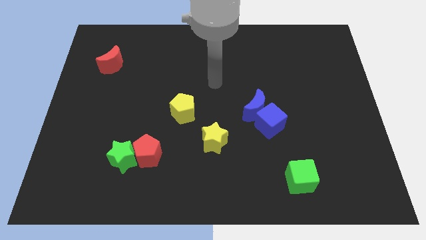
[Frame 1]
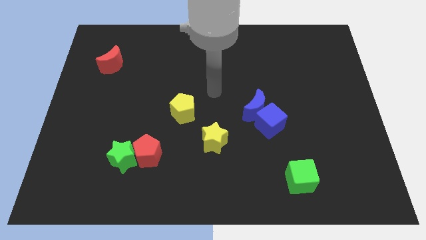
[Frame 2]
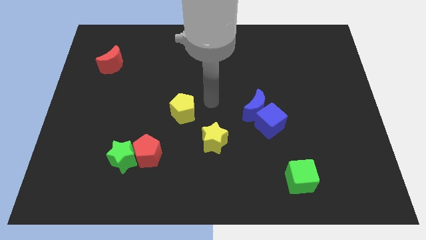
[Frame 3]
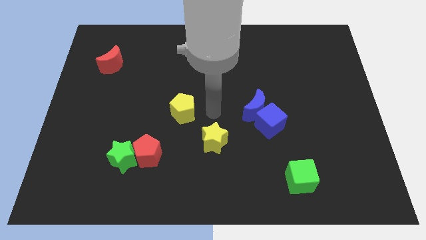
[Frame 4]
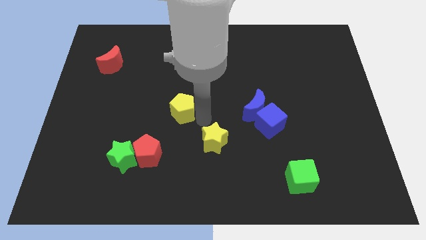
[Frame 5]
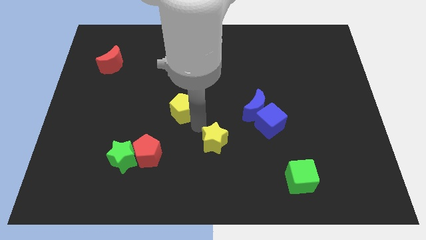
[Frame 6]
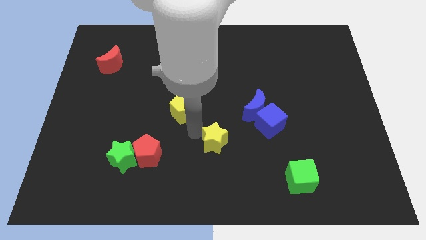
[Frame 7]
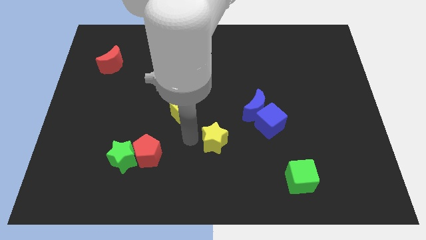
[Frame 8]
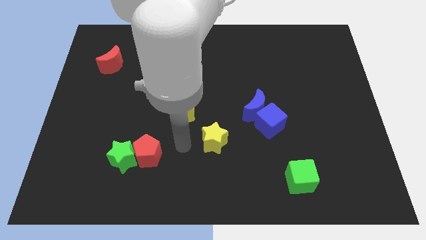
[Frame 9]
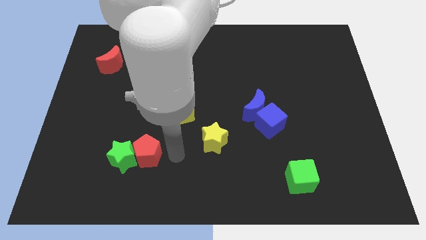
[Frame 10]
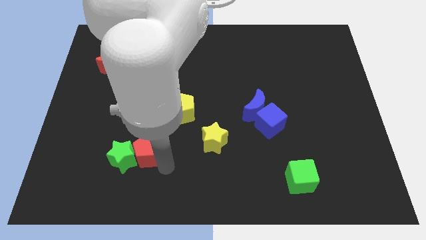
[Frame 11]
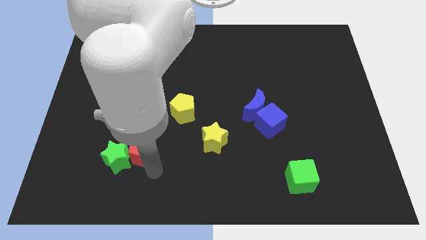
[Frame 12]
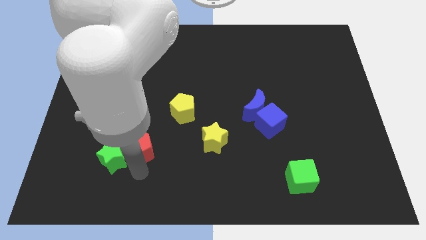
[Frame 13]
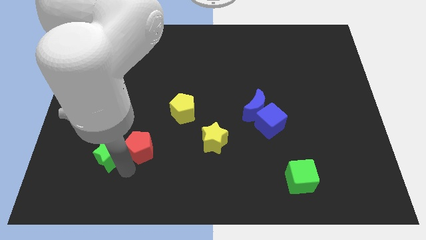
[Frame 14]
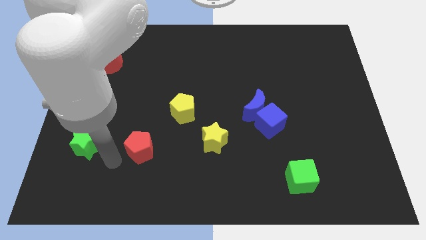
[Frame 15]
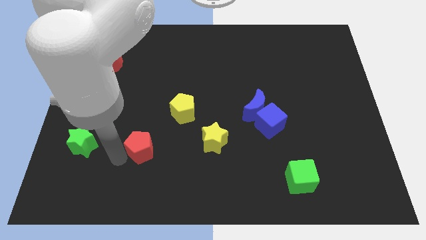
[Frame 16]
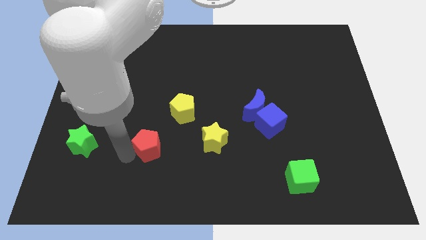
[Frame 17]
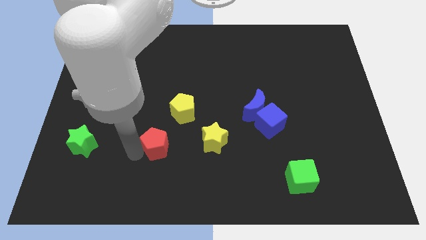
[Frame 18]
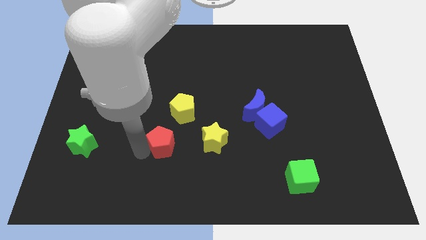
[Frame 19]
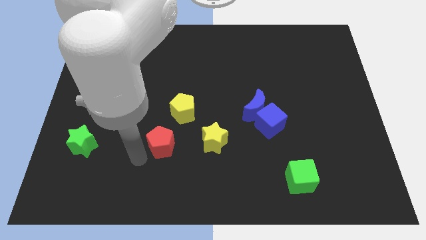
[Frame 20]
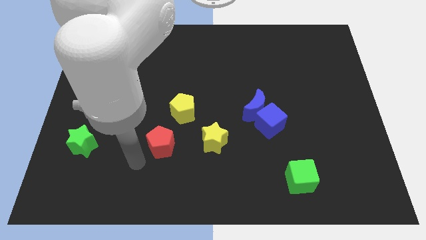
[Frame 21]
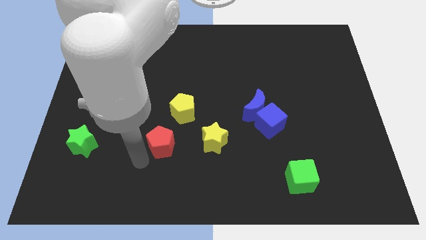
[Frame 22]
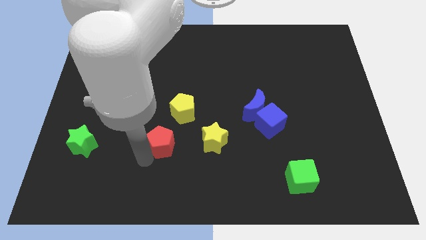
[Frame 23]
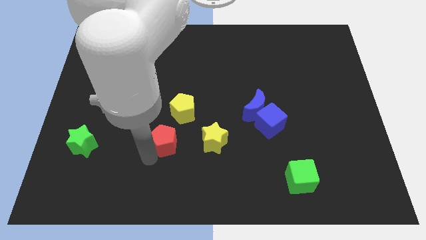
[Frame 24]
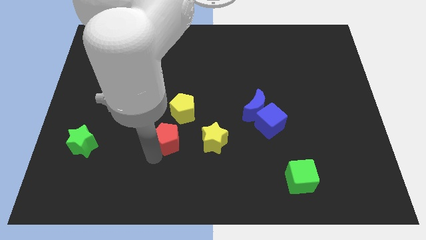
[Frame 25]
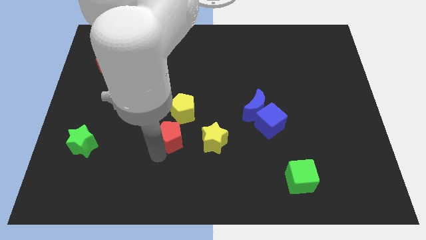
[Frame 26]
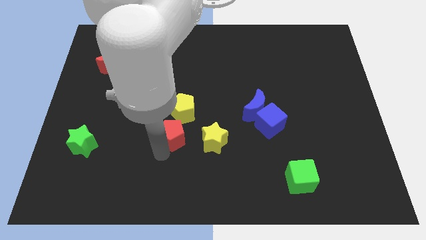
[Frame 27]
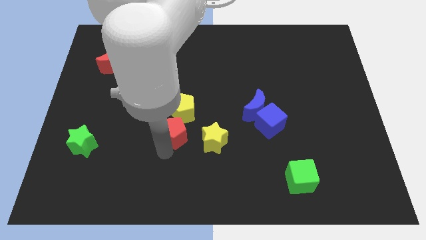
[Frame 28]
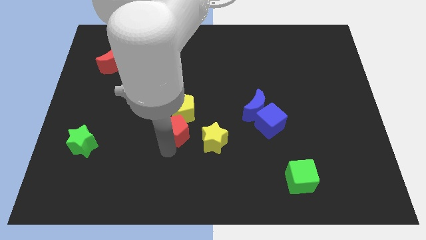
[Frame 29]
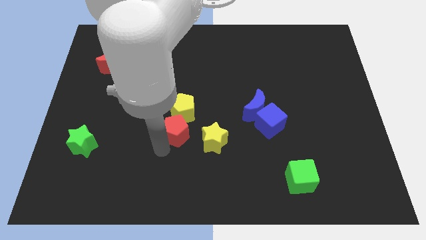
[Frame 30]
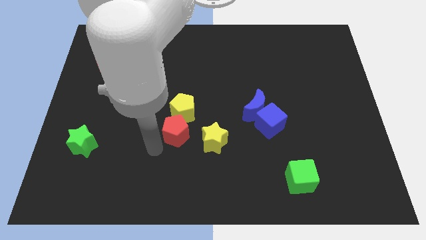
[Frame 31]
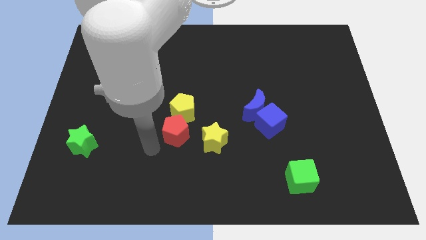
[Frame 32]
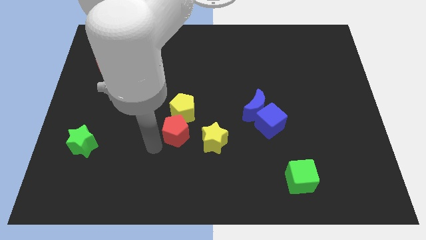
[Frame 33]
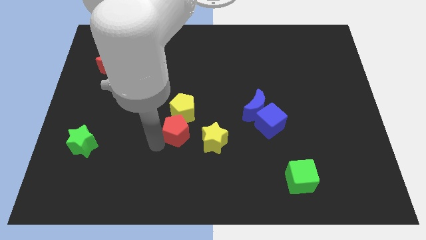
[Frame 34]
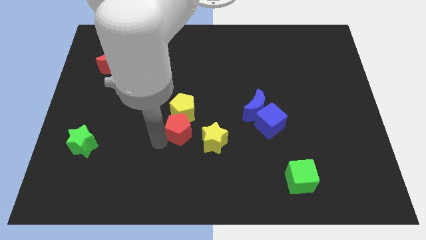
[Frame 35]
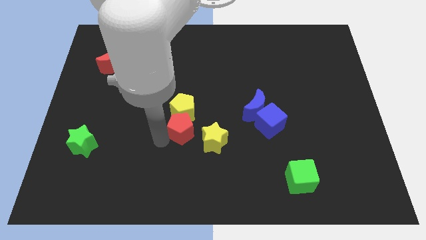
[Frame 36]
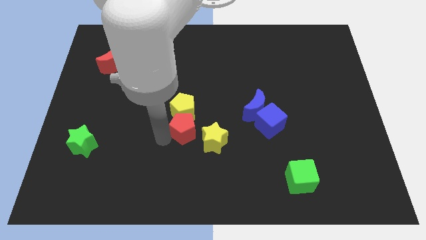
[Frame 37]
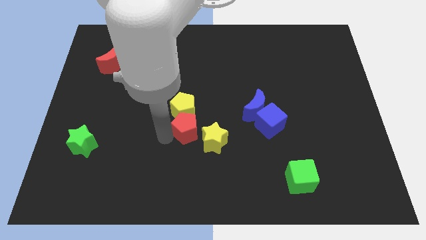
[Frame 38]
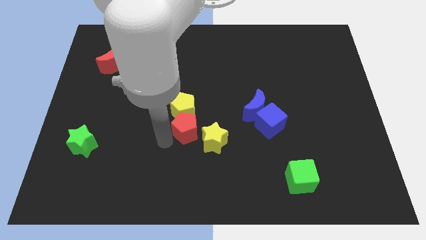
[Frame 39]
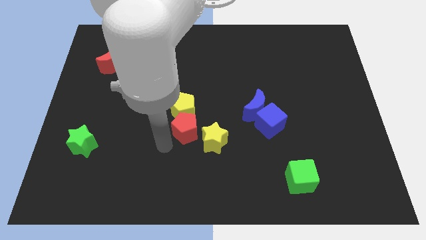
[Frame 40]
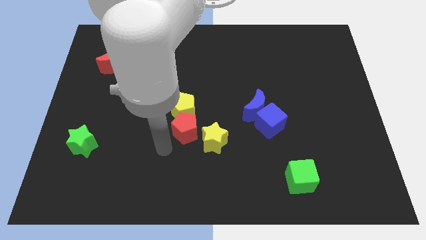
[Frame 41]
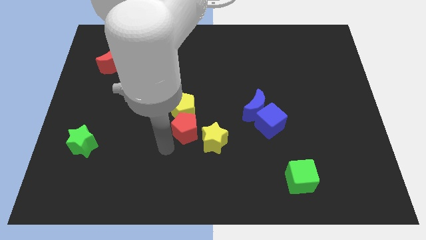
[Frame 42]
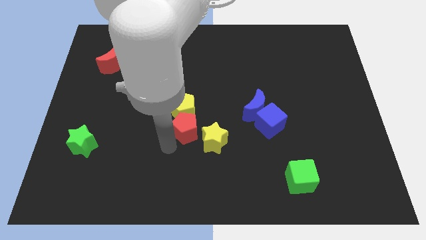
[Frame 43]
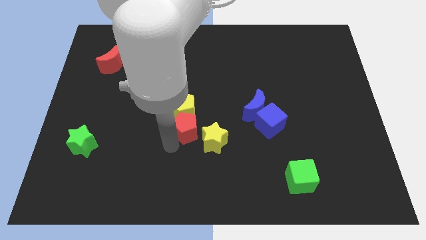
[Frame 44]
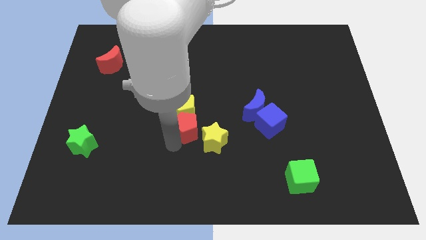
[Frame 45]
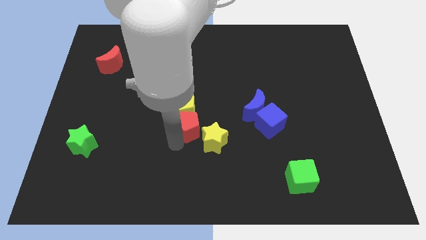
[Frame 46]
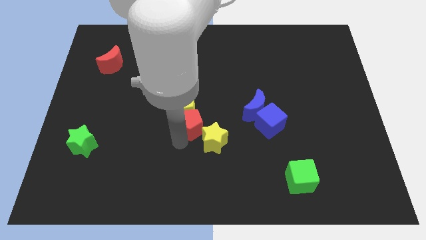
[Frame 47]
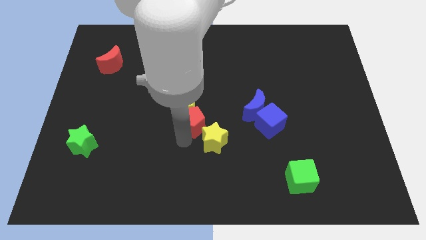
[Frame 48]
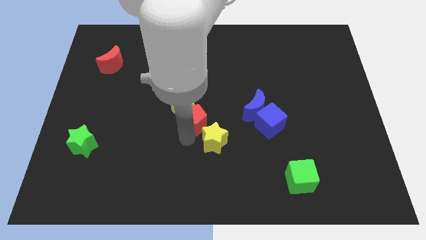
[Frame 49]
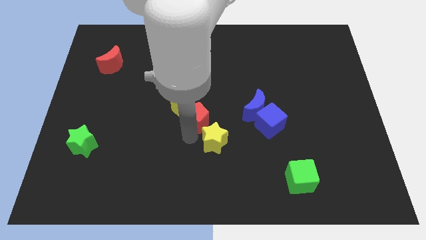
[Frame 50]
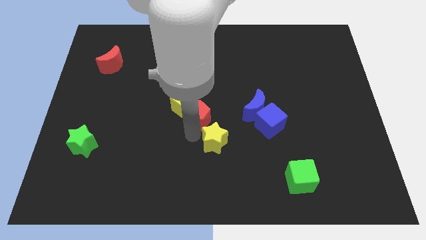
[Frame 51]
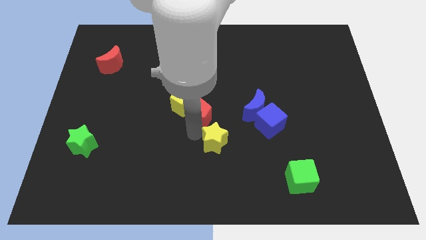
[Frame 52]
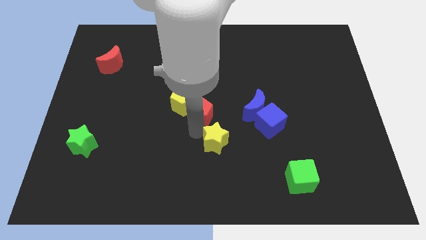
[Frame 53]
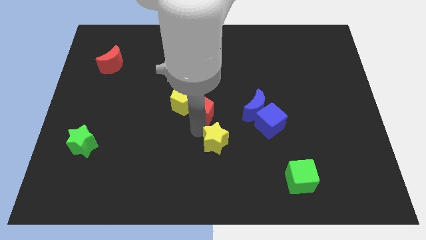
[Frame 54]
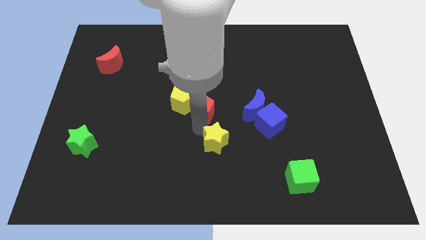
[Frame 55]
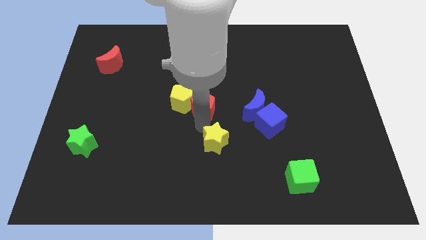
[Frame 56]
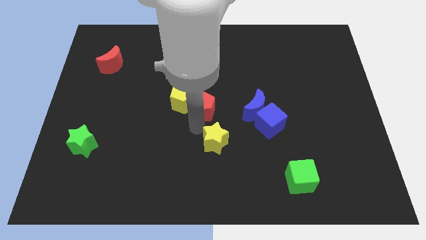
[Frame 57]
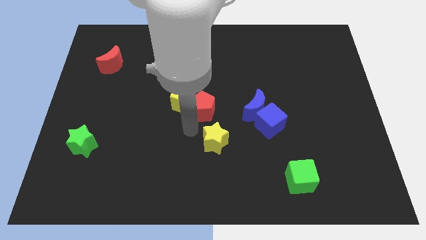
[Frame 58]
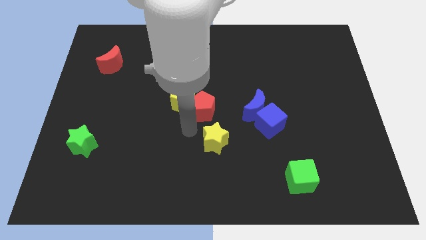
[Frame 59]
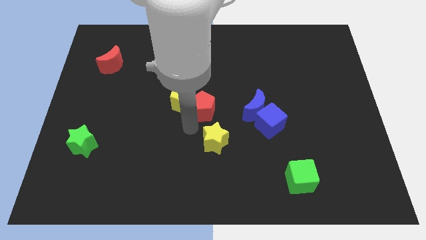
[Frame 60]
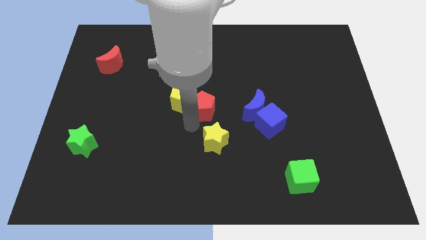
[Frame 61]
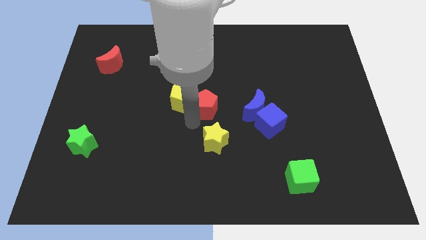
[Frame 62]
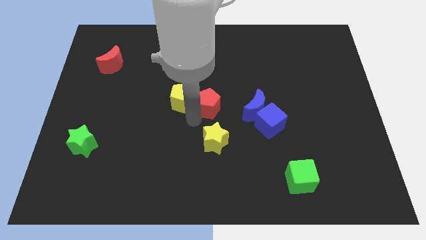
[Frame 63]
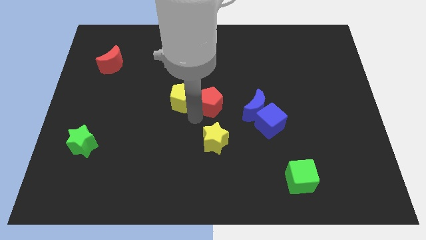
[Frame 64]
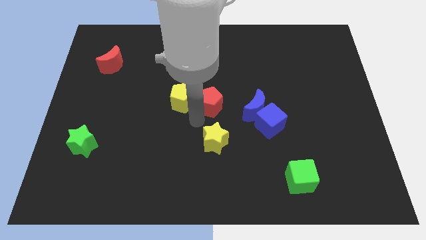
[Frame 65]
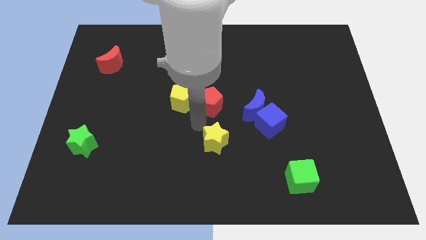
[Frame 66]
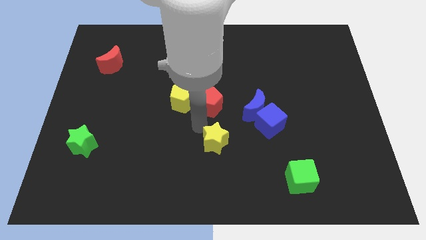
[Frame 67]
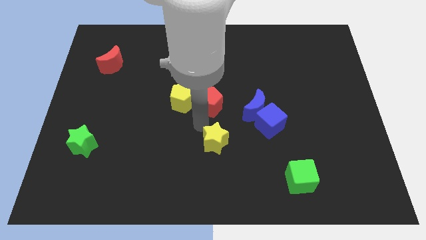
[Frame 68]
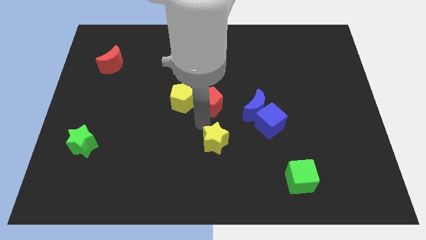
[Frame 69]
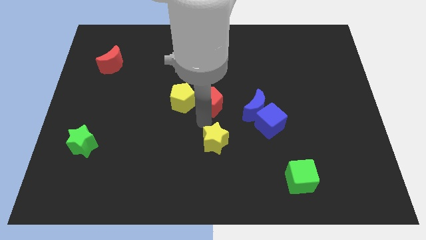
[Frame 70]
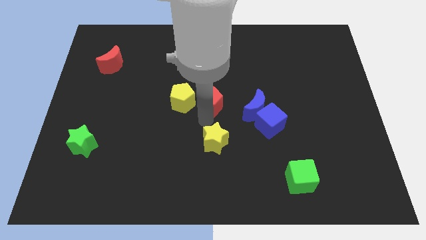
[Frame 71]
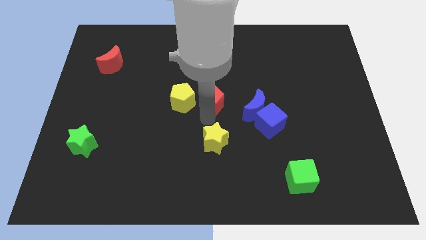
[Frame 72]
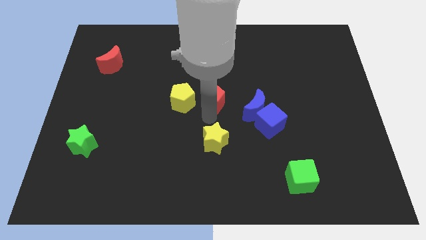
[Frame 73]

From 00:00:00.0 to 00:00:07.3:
slide the red pentagon up and right diagonally

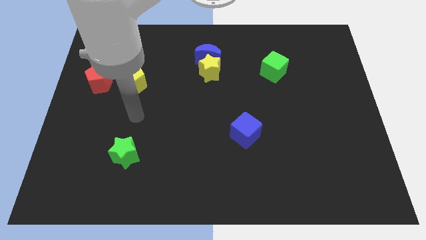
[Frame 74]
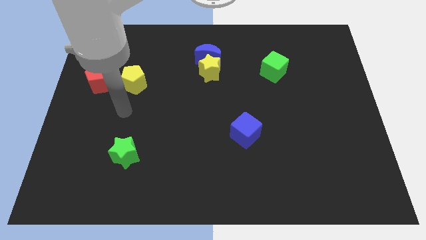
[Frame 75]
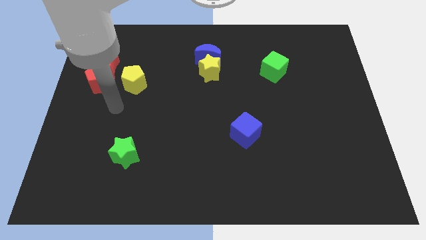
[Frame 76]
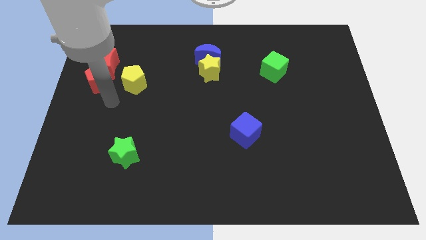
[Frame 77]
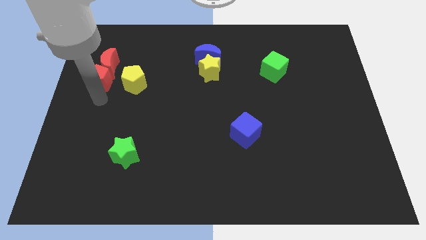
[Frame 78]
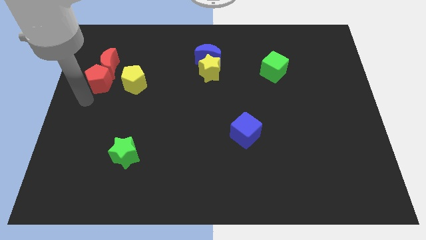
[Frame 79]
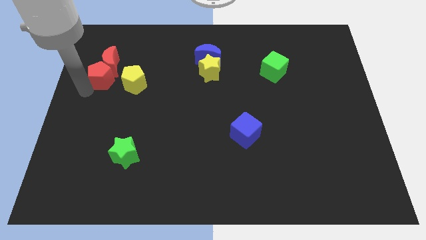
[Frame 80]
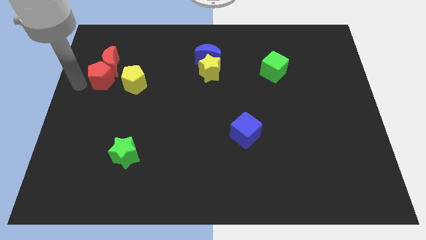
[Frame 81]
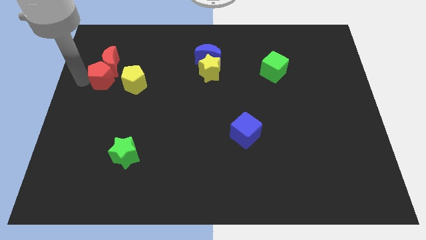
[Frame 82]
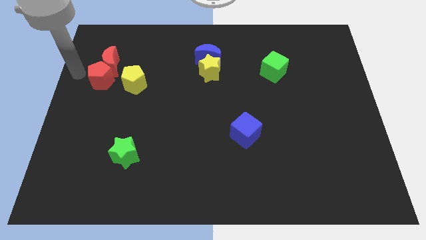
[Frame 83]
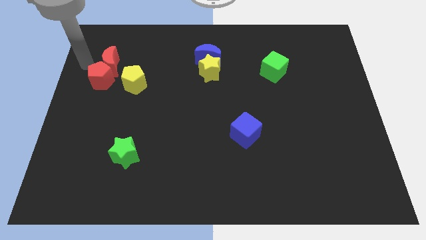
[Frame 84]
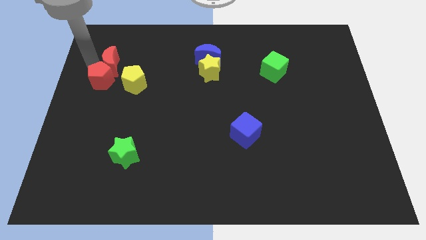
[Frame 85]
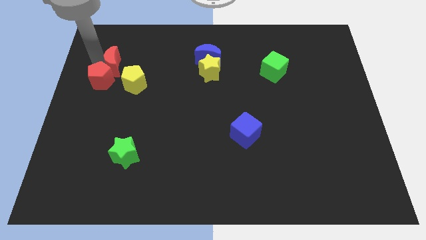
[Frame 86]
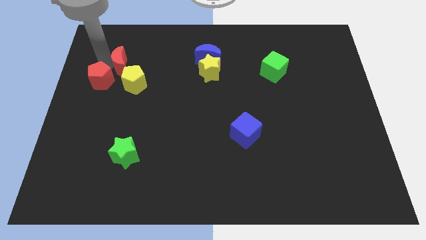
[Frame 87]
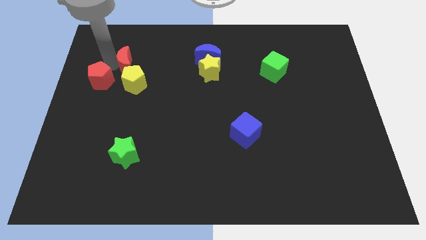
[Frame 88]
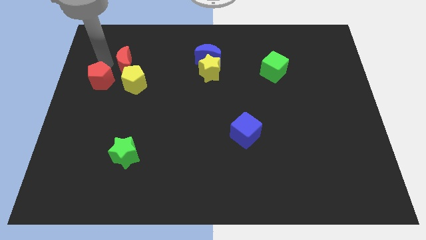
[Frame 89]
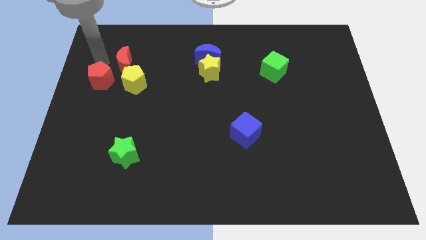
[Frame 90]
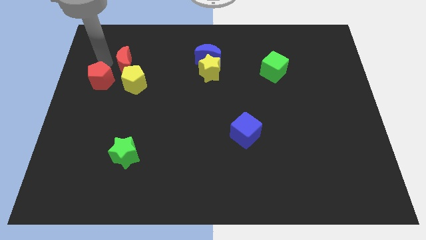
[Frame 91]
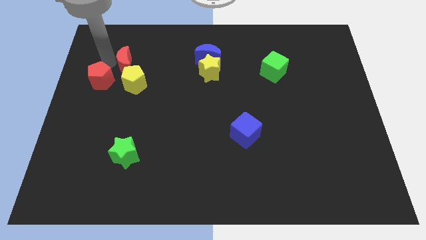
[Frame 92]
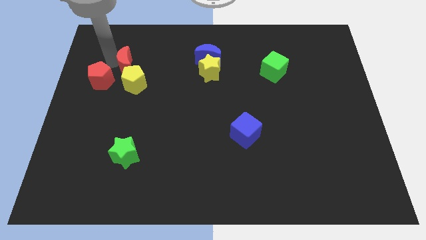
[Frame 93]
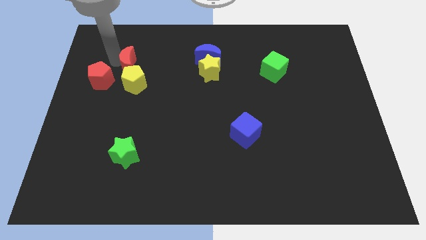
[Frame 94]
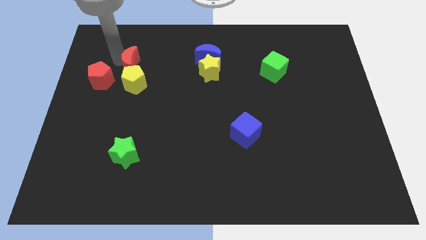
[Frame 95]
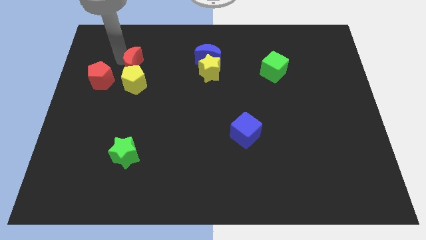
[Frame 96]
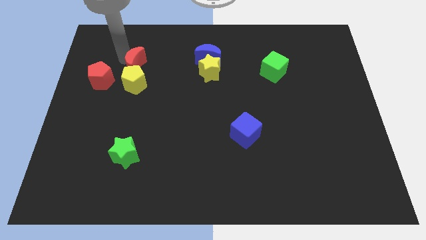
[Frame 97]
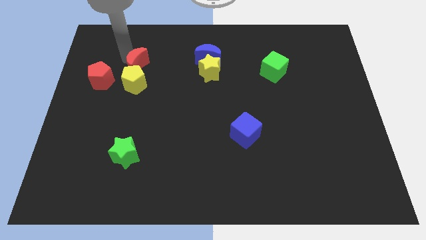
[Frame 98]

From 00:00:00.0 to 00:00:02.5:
push the red moon slightly to the right
